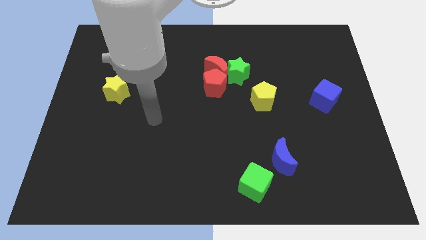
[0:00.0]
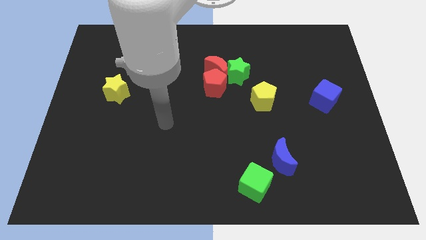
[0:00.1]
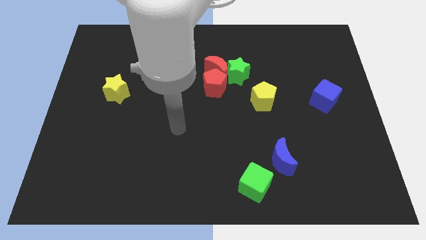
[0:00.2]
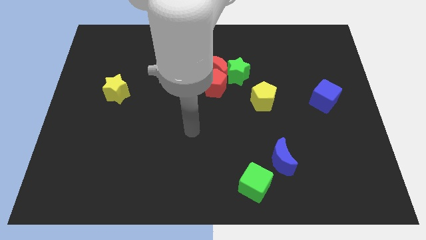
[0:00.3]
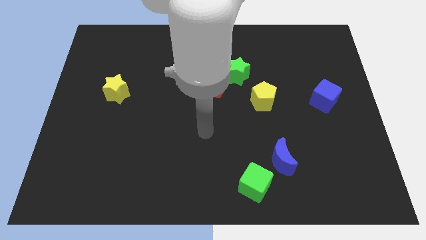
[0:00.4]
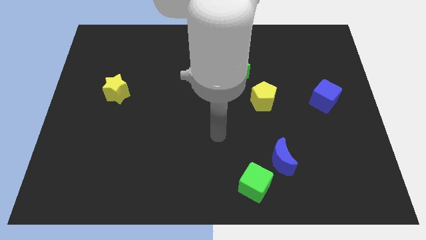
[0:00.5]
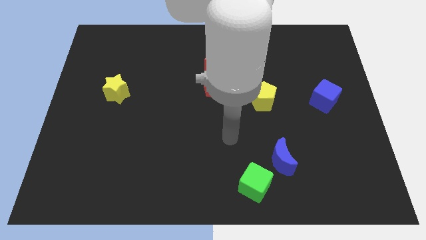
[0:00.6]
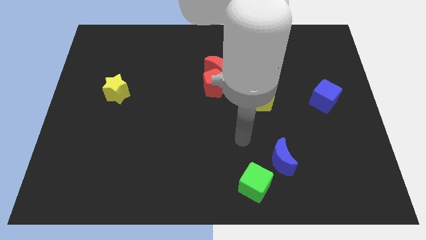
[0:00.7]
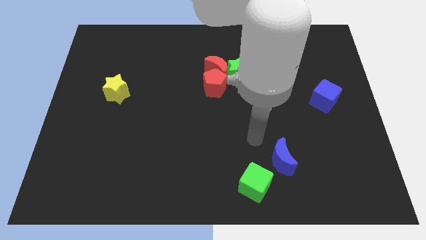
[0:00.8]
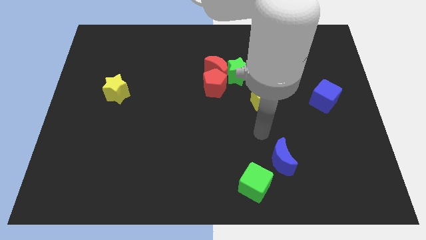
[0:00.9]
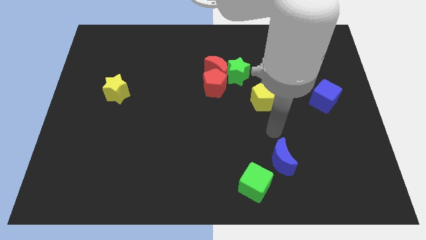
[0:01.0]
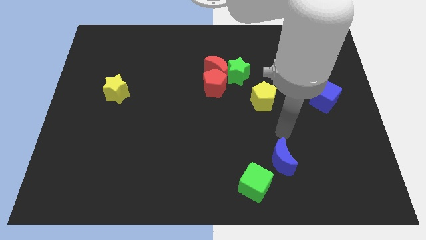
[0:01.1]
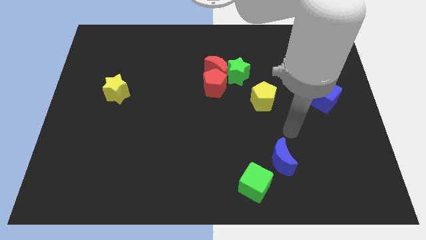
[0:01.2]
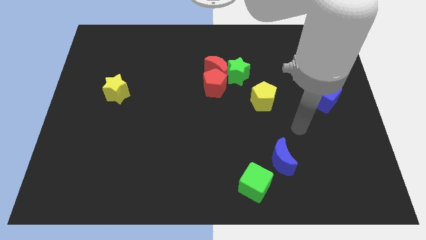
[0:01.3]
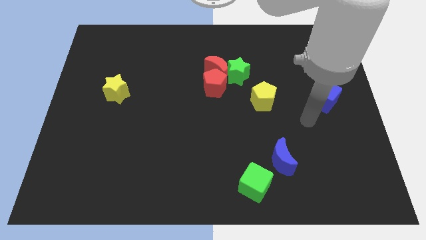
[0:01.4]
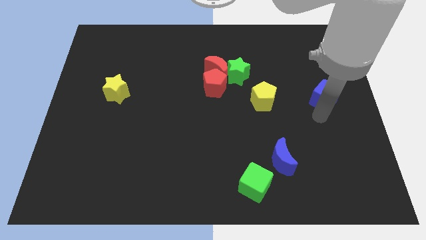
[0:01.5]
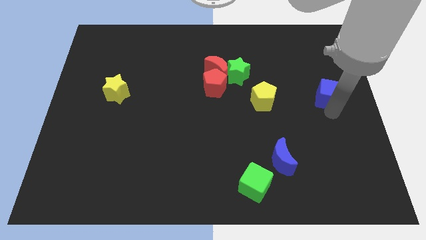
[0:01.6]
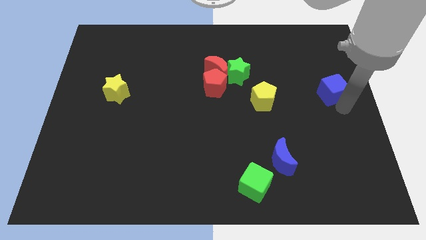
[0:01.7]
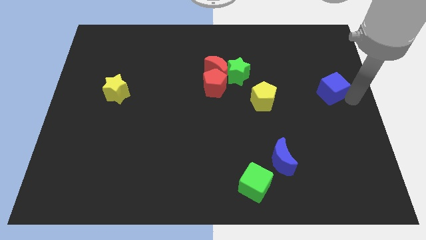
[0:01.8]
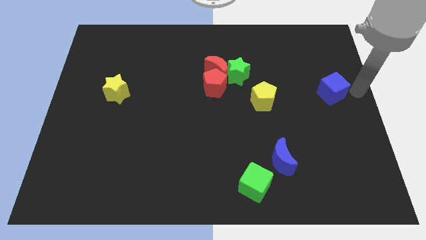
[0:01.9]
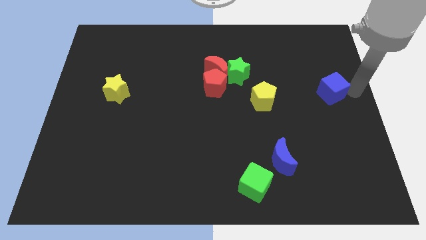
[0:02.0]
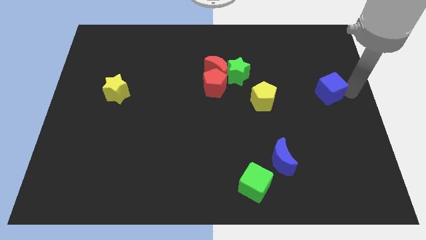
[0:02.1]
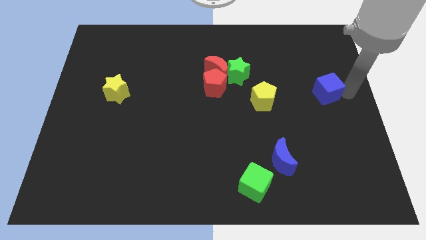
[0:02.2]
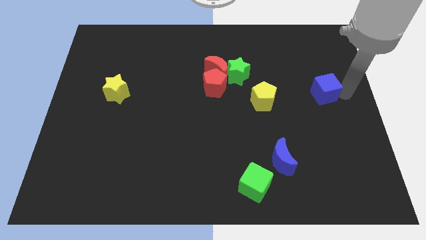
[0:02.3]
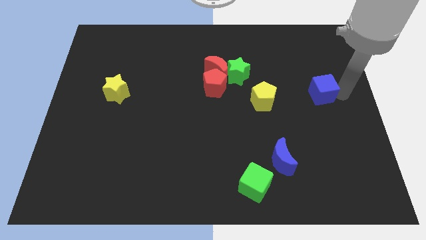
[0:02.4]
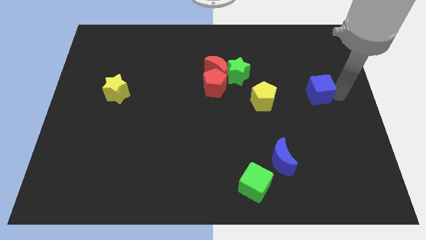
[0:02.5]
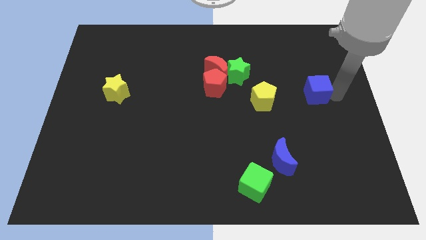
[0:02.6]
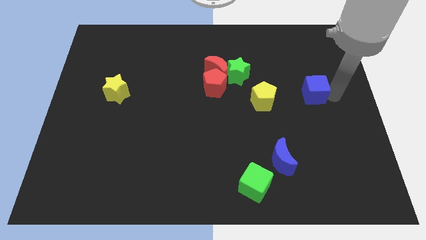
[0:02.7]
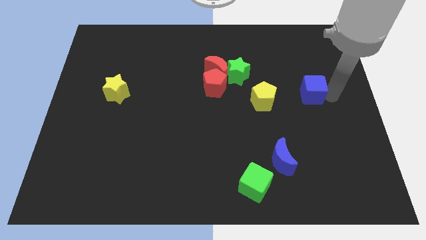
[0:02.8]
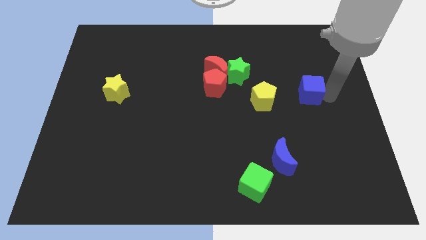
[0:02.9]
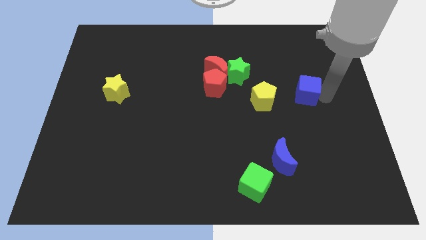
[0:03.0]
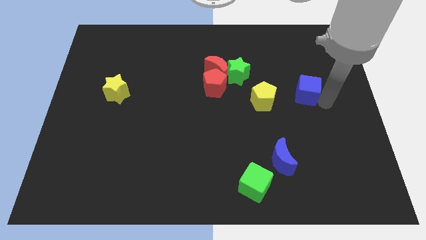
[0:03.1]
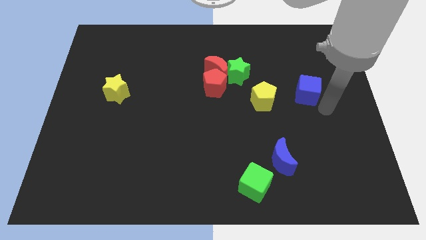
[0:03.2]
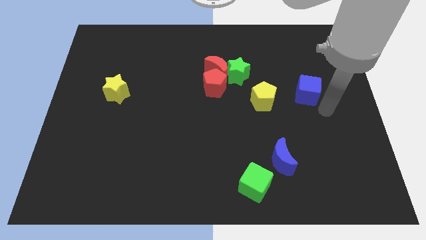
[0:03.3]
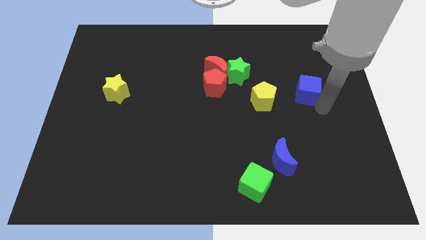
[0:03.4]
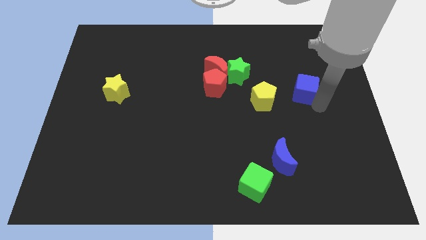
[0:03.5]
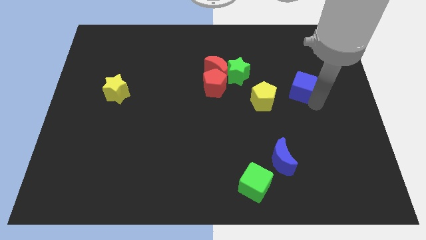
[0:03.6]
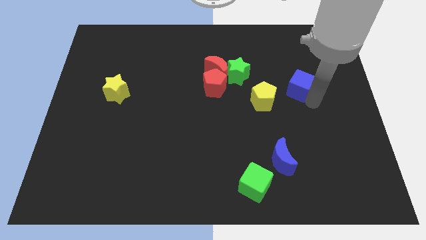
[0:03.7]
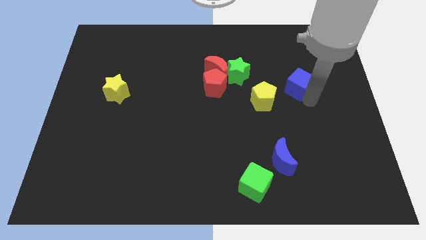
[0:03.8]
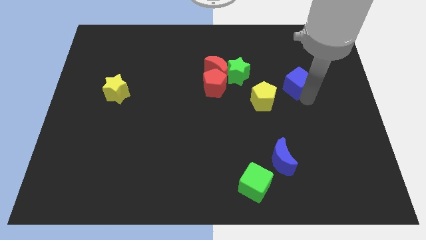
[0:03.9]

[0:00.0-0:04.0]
move the blue cube a bit up and then left

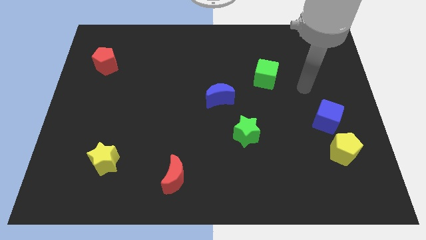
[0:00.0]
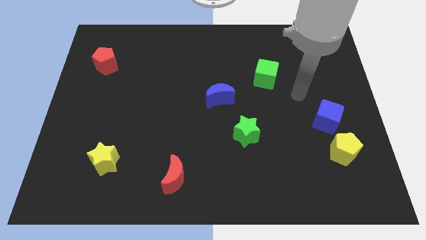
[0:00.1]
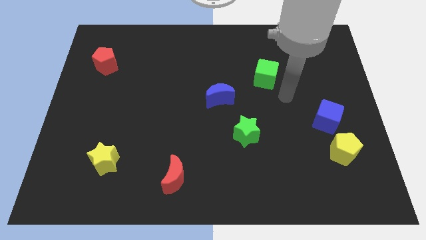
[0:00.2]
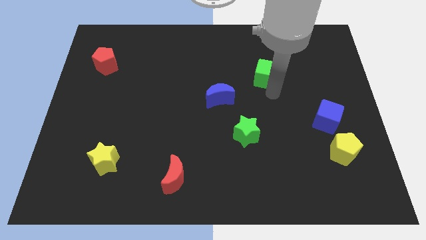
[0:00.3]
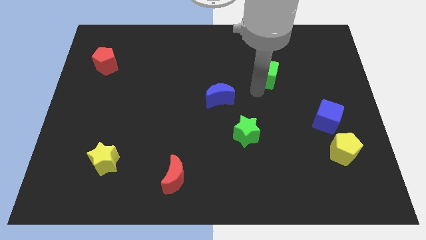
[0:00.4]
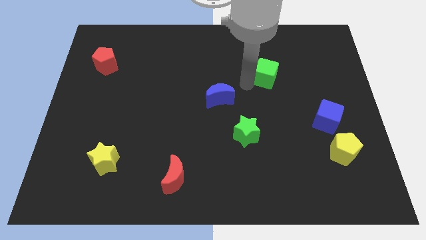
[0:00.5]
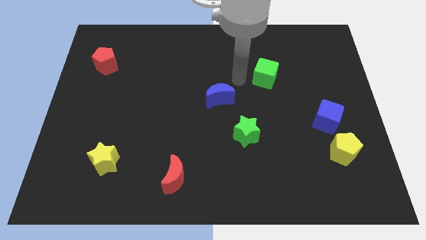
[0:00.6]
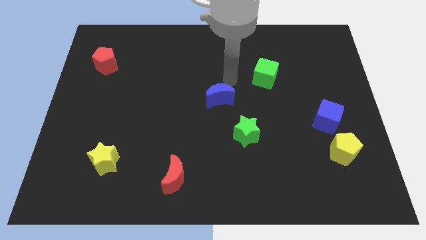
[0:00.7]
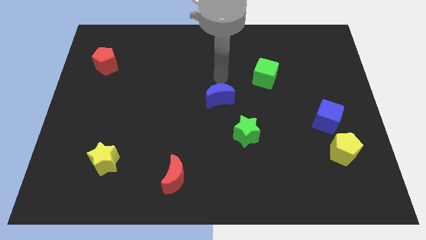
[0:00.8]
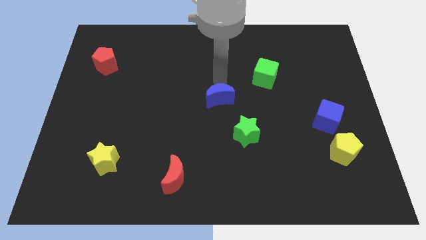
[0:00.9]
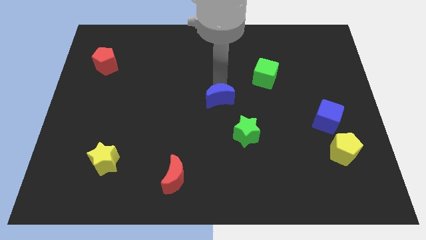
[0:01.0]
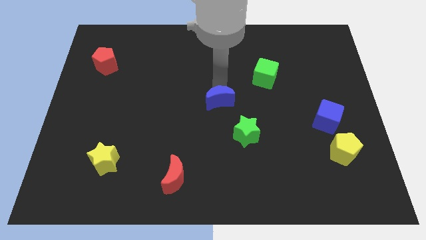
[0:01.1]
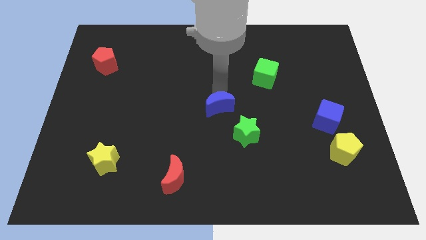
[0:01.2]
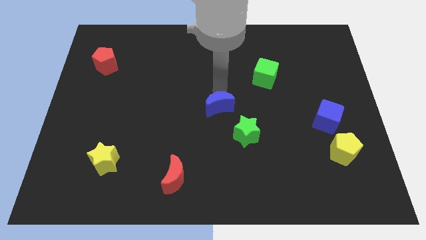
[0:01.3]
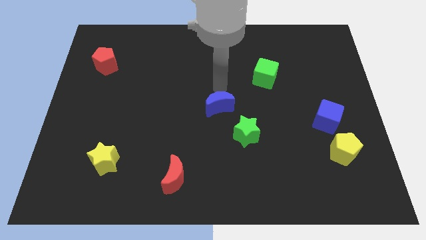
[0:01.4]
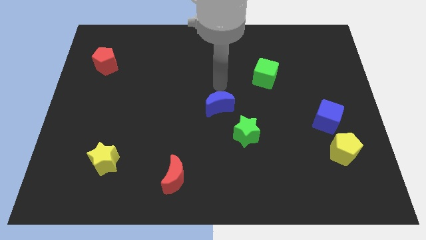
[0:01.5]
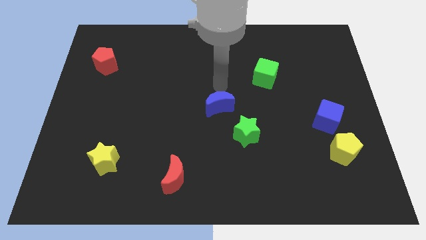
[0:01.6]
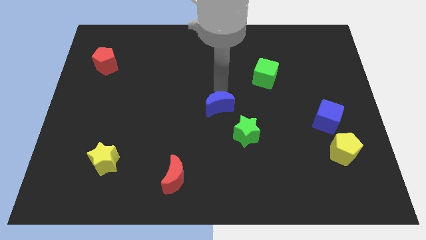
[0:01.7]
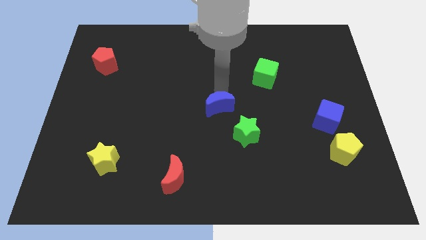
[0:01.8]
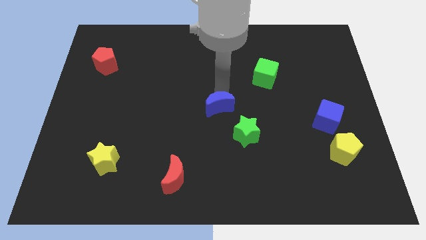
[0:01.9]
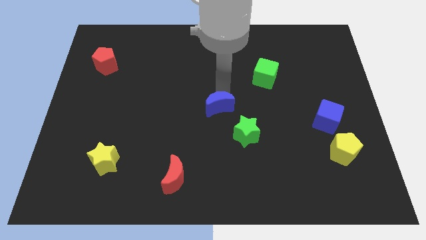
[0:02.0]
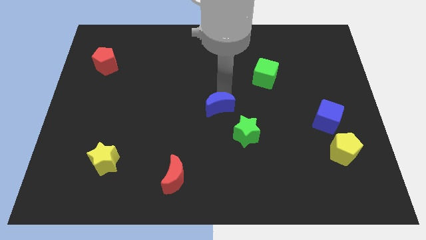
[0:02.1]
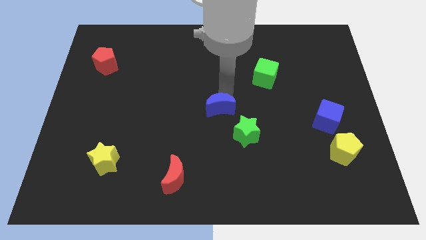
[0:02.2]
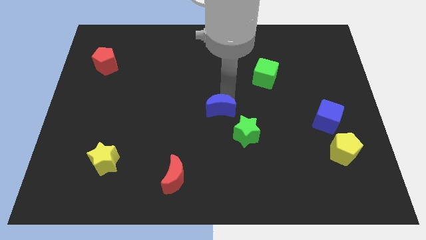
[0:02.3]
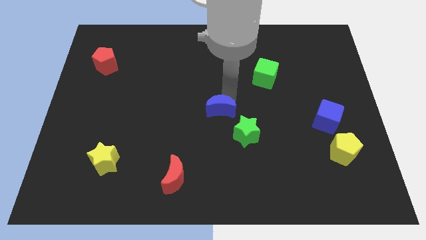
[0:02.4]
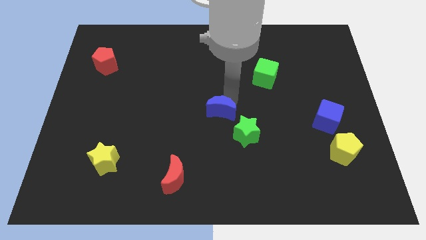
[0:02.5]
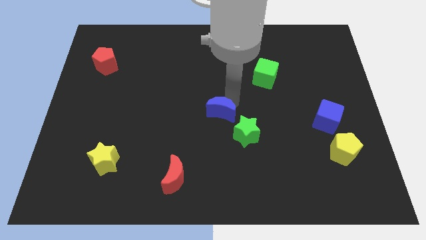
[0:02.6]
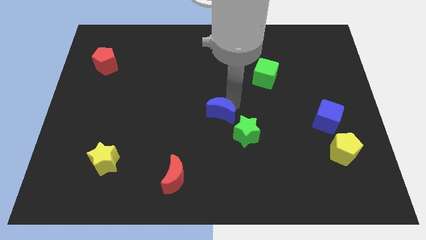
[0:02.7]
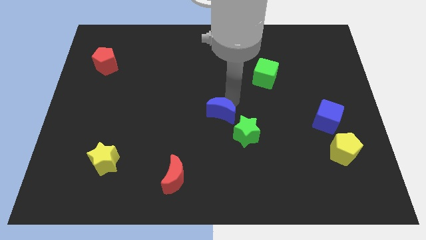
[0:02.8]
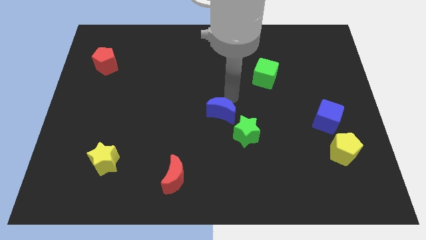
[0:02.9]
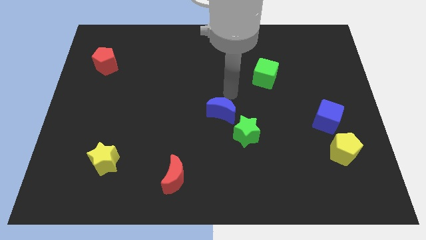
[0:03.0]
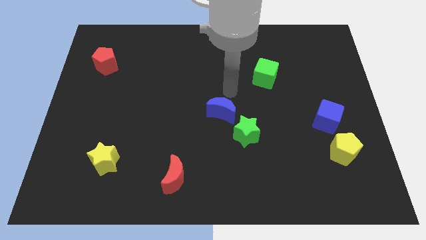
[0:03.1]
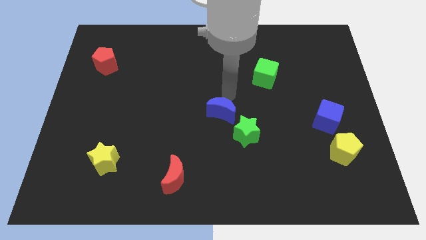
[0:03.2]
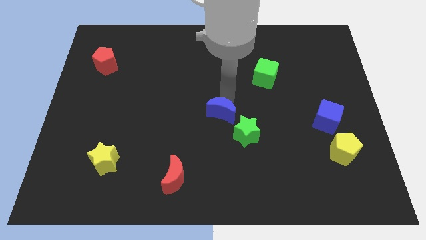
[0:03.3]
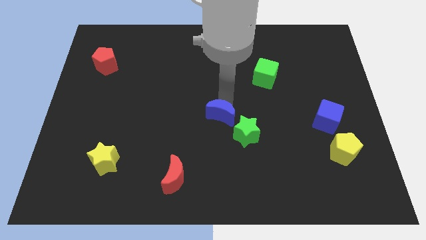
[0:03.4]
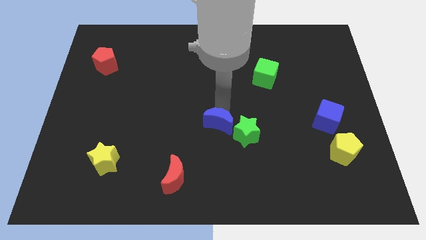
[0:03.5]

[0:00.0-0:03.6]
move the blue moon down somewhat

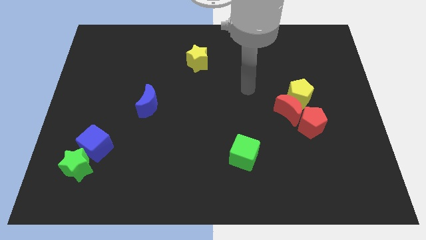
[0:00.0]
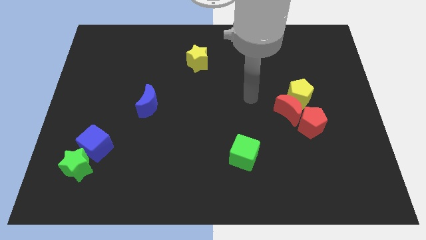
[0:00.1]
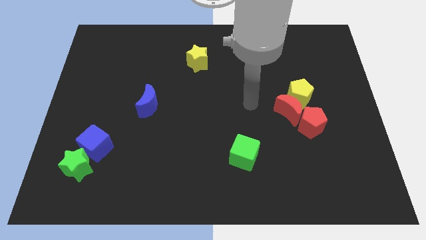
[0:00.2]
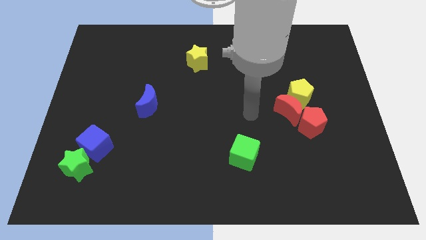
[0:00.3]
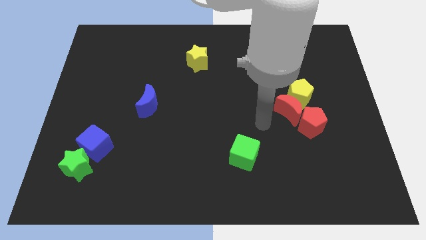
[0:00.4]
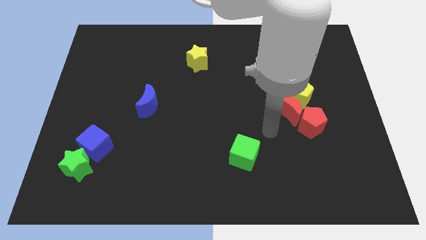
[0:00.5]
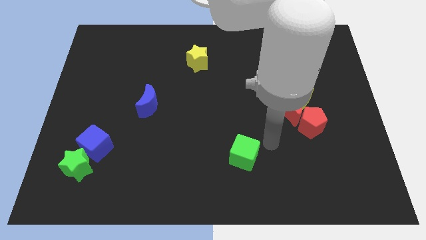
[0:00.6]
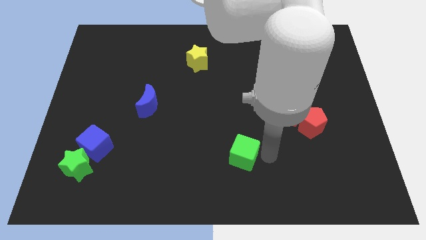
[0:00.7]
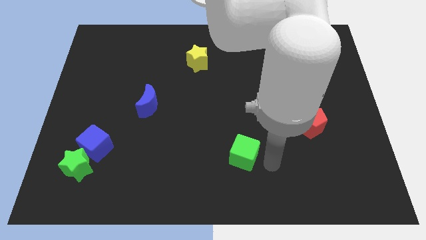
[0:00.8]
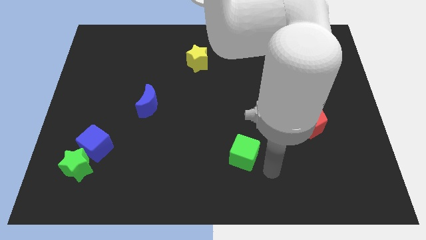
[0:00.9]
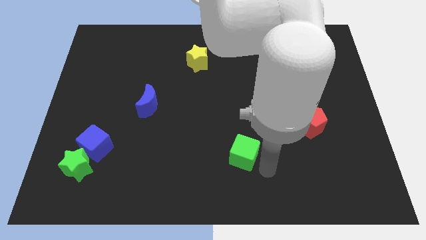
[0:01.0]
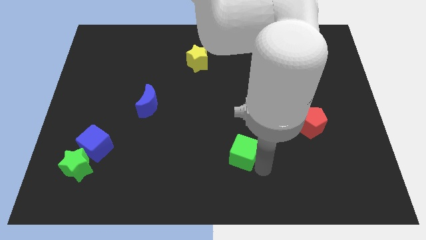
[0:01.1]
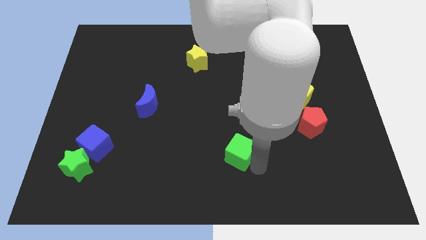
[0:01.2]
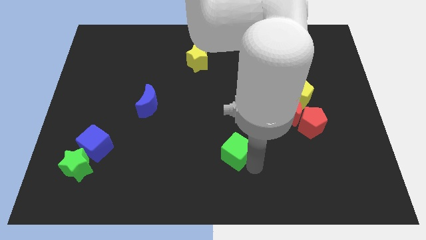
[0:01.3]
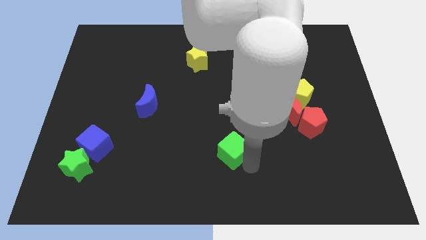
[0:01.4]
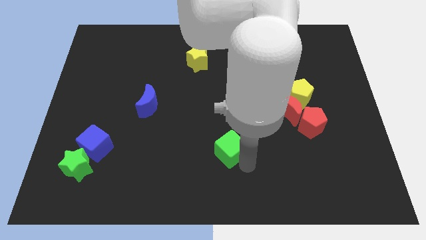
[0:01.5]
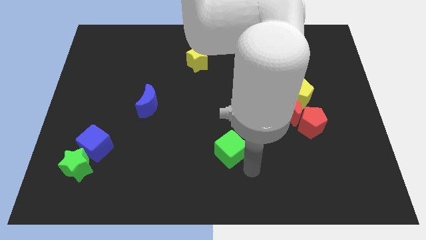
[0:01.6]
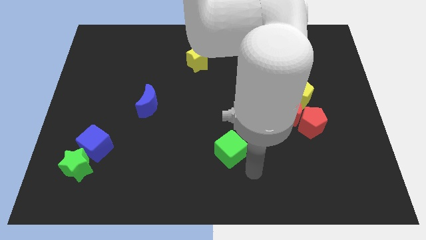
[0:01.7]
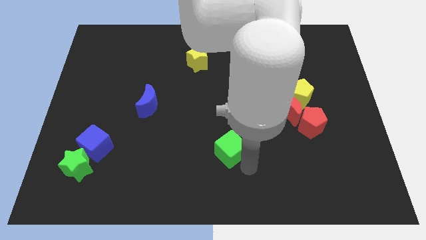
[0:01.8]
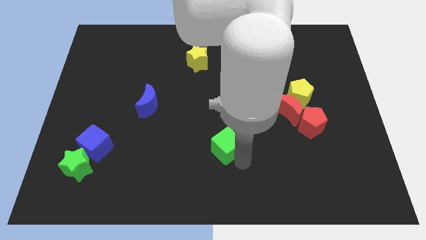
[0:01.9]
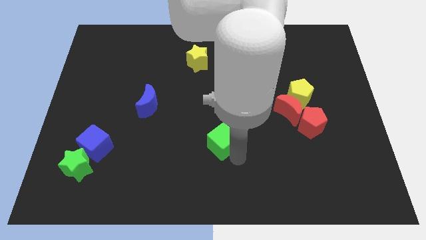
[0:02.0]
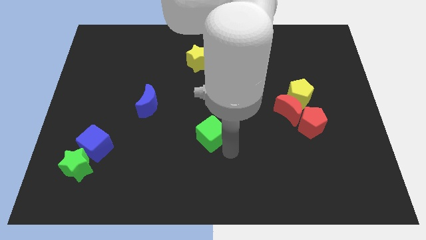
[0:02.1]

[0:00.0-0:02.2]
push the green cube upwards and to the left diagonally slightly
